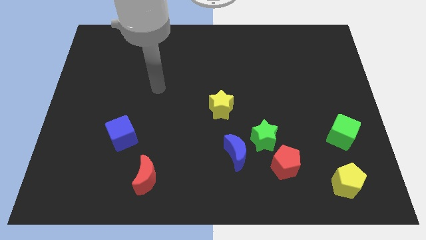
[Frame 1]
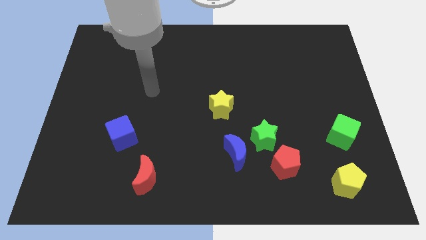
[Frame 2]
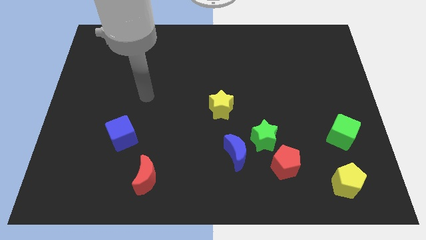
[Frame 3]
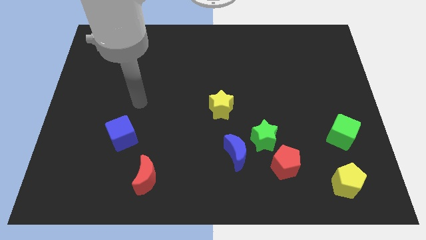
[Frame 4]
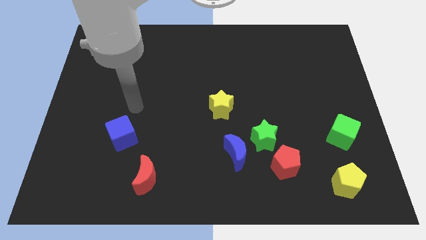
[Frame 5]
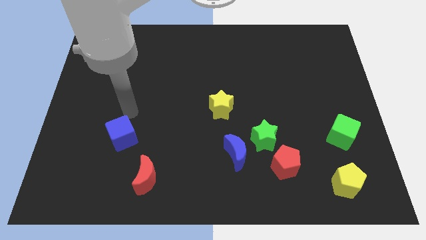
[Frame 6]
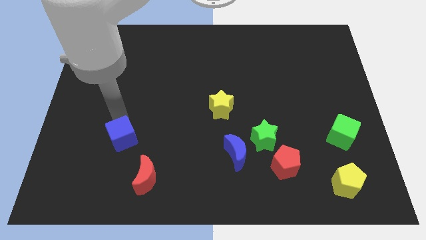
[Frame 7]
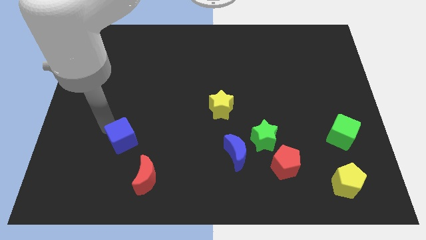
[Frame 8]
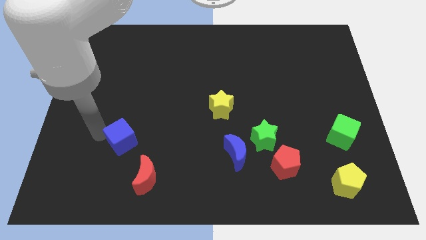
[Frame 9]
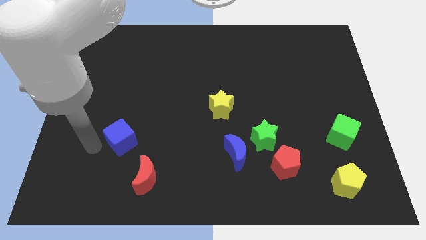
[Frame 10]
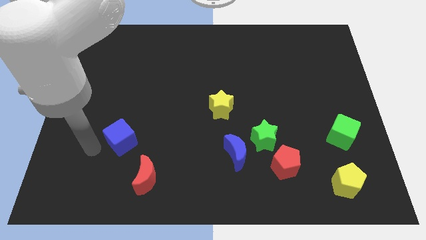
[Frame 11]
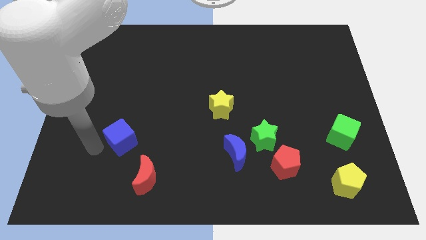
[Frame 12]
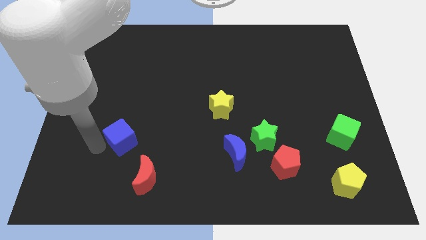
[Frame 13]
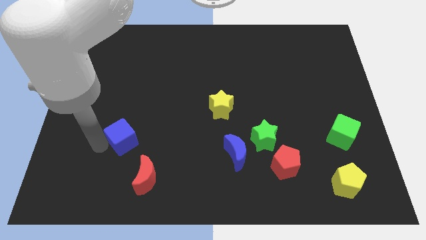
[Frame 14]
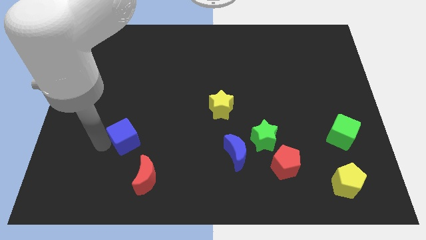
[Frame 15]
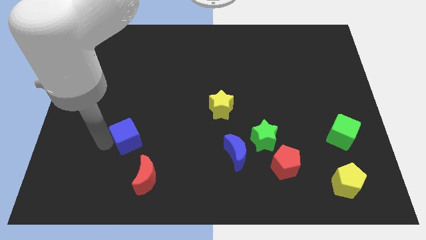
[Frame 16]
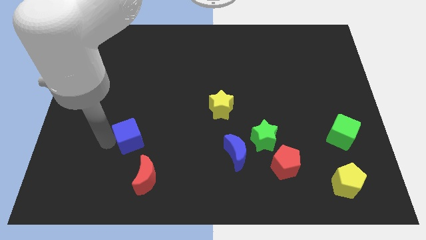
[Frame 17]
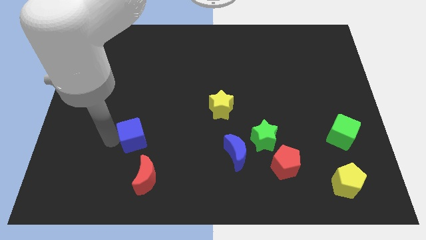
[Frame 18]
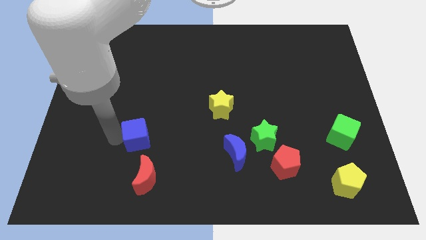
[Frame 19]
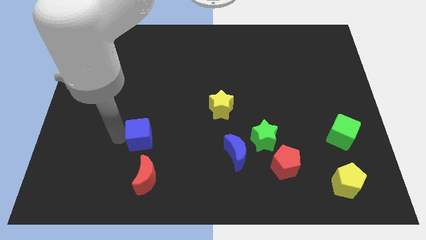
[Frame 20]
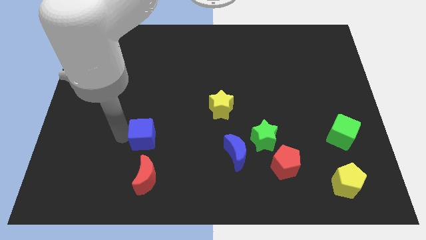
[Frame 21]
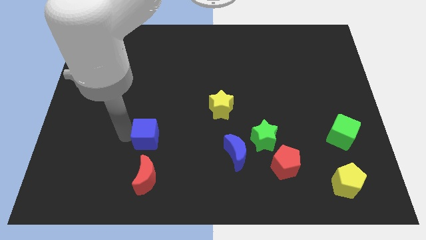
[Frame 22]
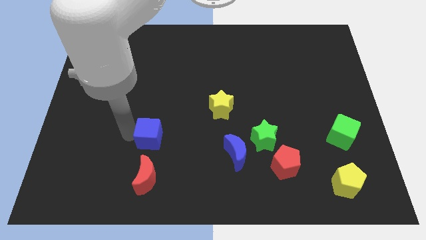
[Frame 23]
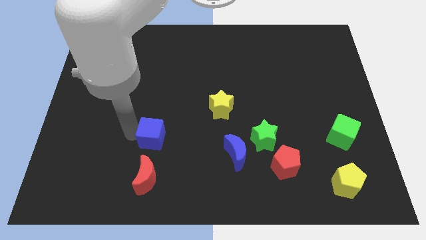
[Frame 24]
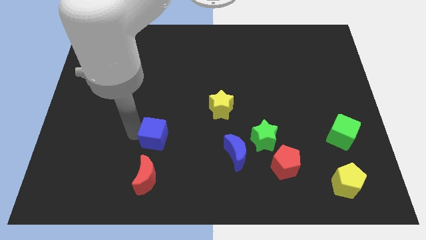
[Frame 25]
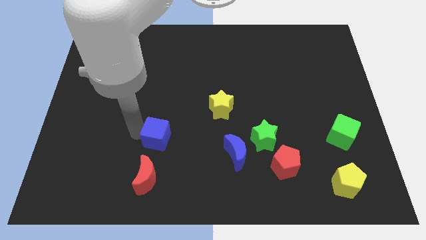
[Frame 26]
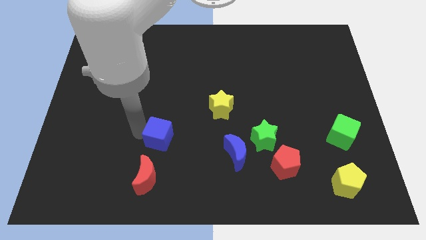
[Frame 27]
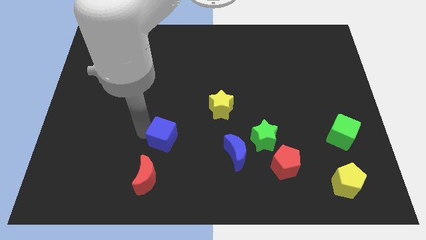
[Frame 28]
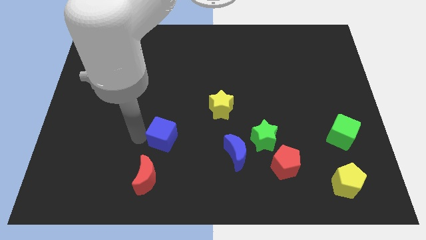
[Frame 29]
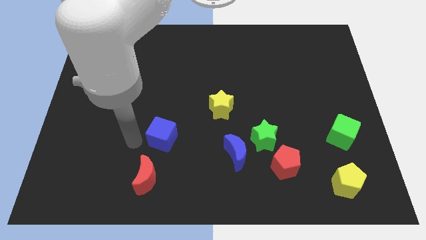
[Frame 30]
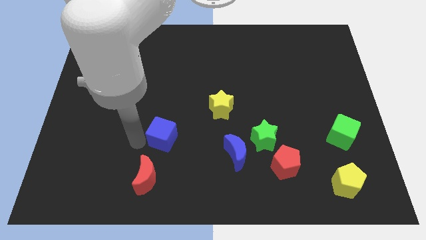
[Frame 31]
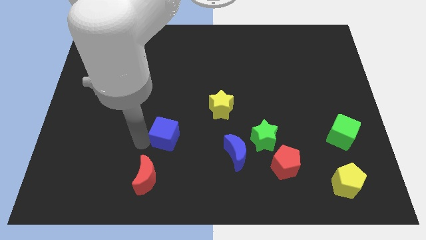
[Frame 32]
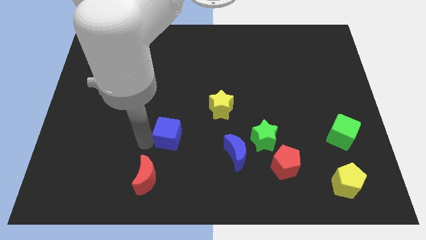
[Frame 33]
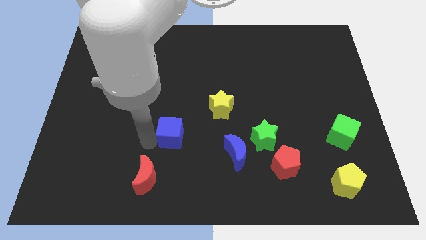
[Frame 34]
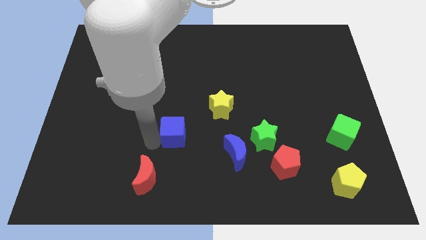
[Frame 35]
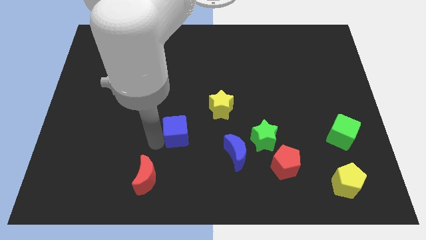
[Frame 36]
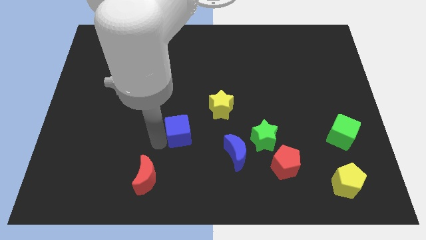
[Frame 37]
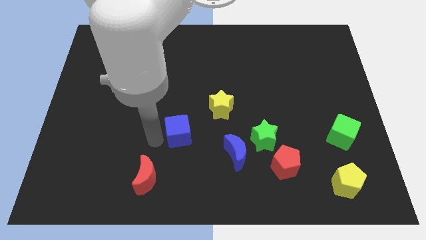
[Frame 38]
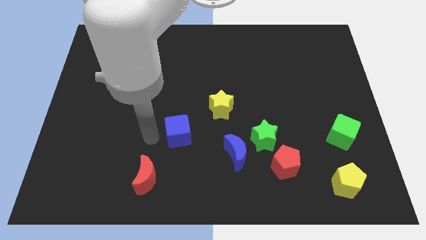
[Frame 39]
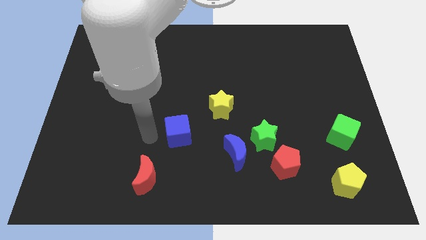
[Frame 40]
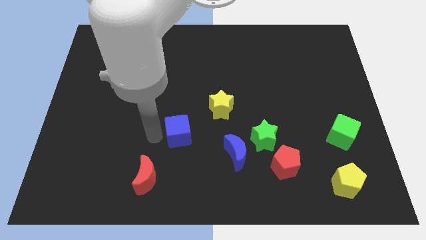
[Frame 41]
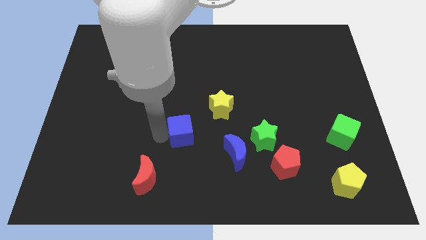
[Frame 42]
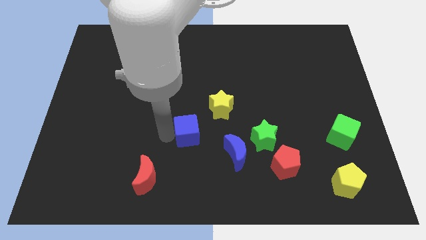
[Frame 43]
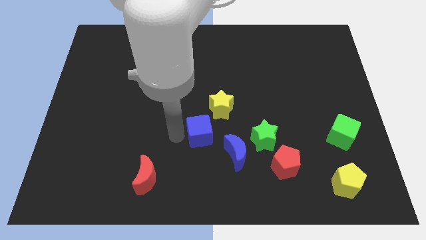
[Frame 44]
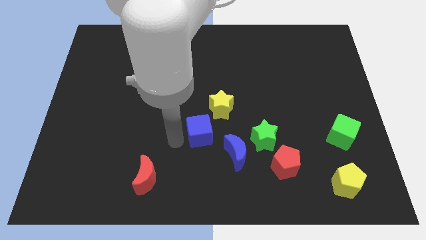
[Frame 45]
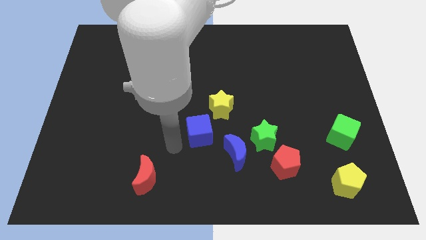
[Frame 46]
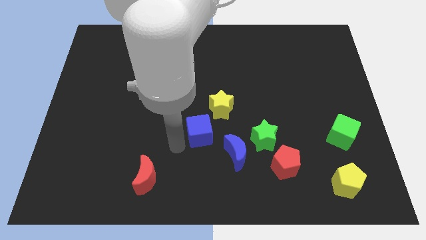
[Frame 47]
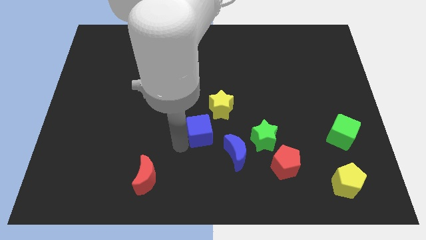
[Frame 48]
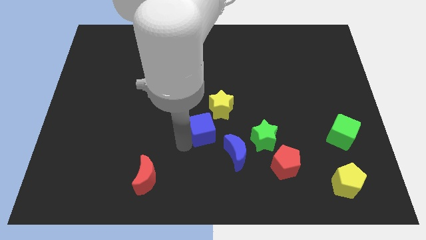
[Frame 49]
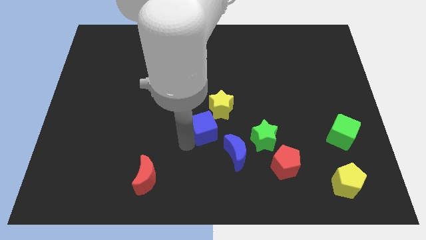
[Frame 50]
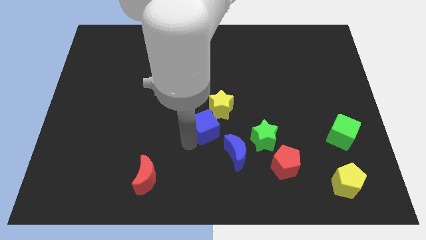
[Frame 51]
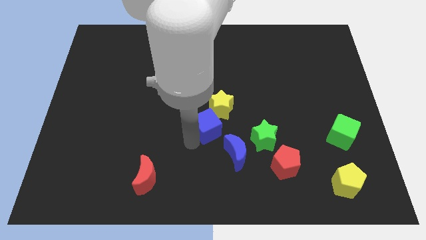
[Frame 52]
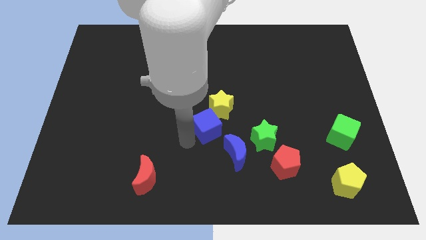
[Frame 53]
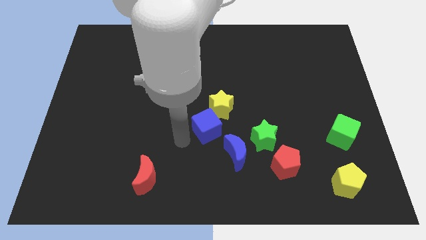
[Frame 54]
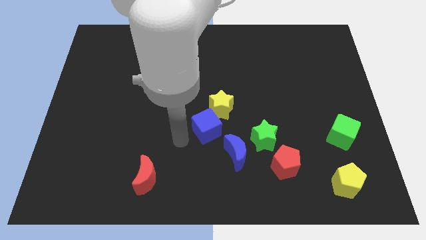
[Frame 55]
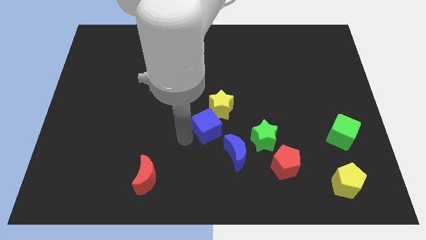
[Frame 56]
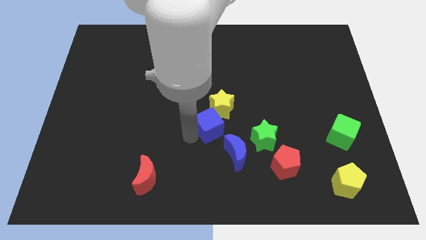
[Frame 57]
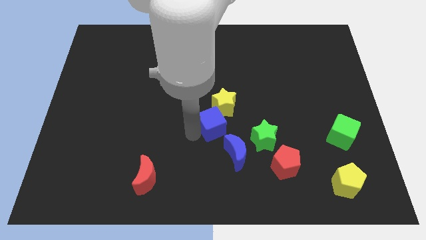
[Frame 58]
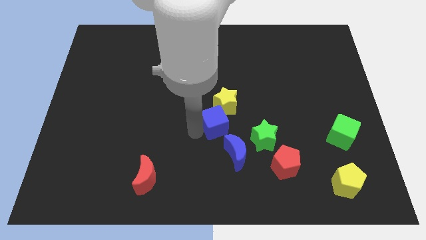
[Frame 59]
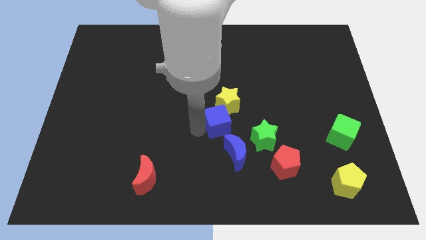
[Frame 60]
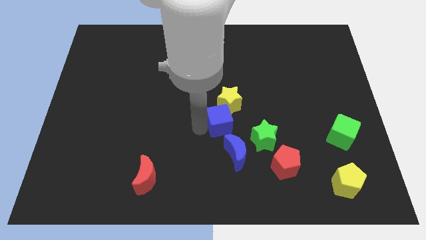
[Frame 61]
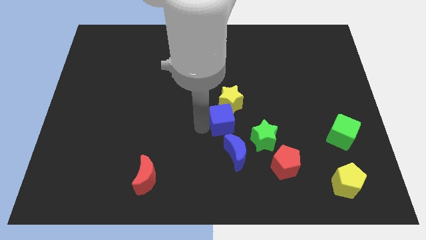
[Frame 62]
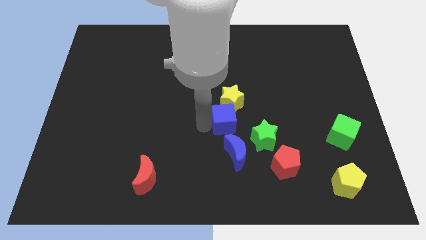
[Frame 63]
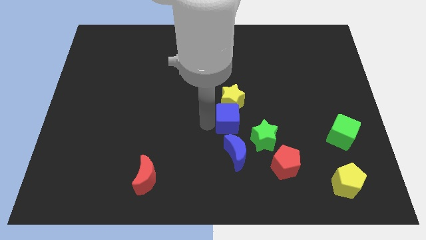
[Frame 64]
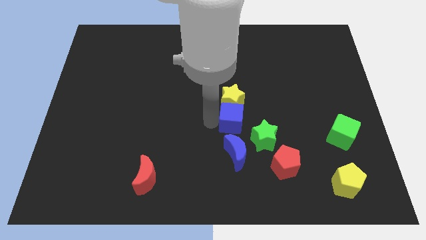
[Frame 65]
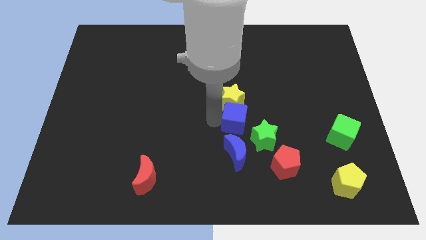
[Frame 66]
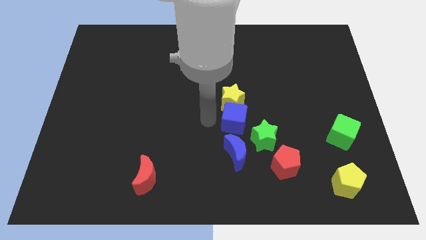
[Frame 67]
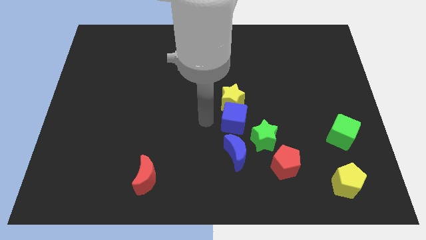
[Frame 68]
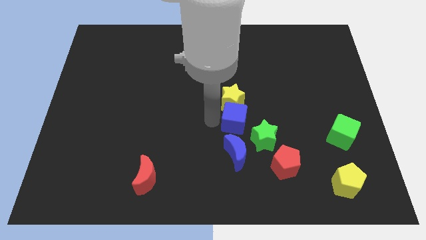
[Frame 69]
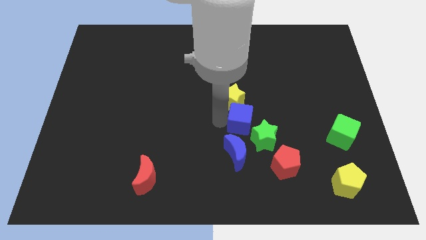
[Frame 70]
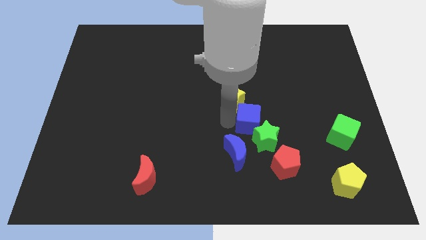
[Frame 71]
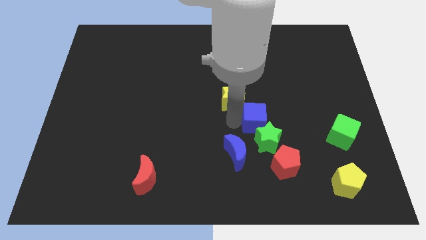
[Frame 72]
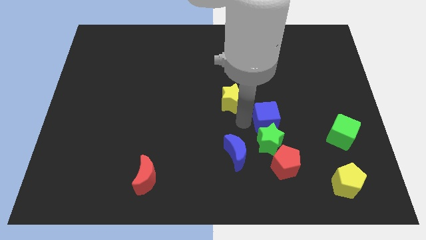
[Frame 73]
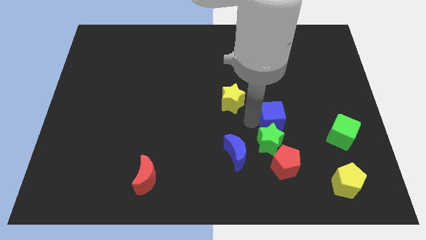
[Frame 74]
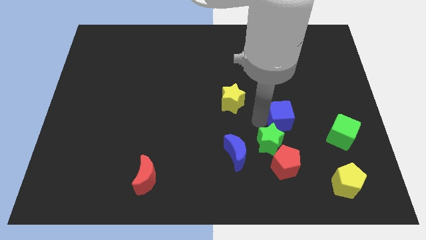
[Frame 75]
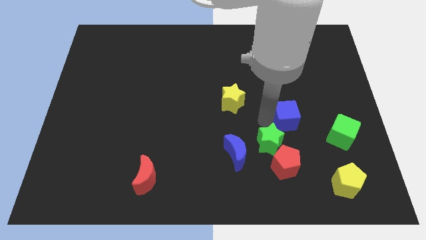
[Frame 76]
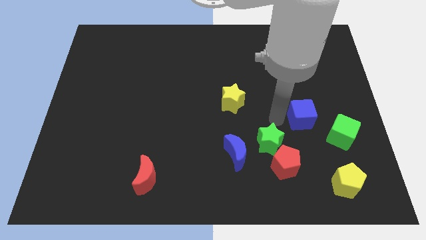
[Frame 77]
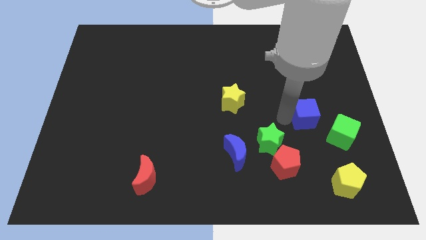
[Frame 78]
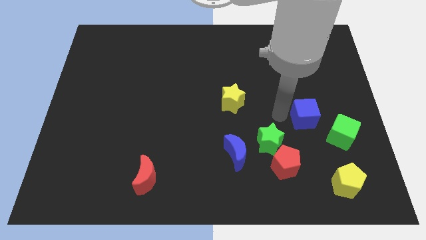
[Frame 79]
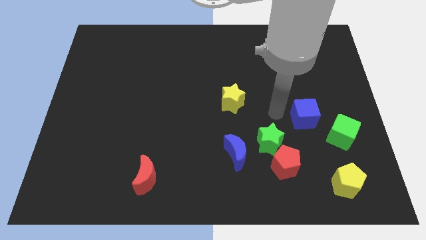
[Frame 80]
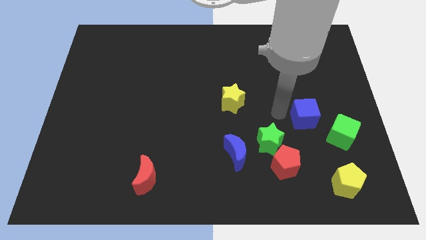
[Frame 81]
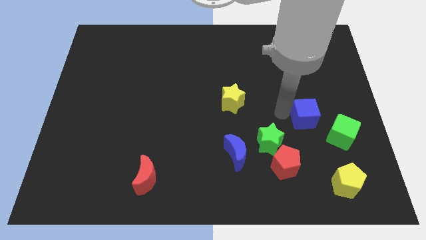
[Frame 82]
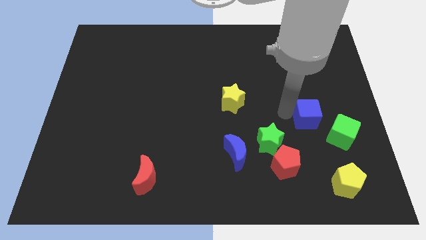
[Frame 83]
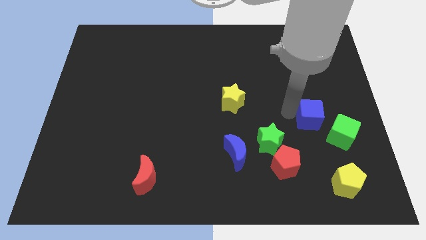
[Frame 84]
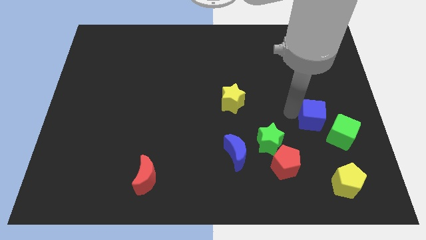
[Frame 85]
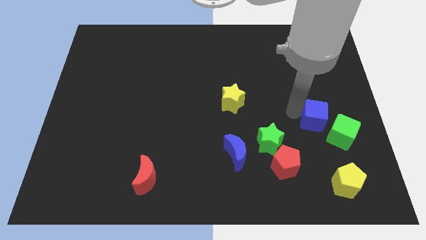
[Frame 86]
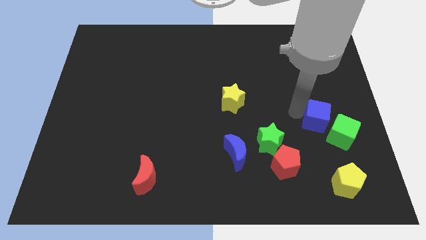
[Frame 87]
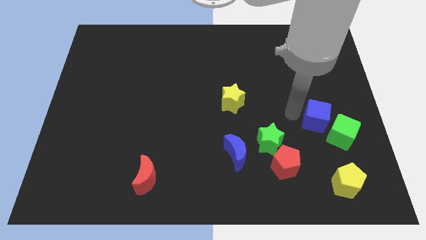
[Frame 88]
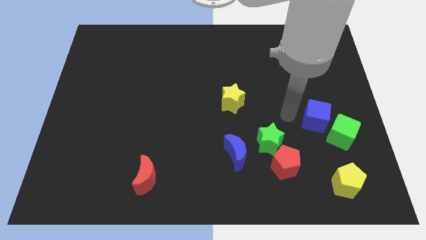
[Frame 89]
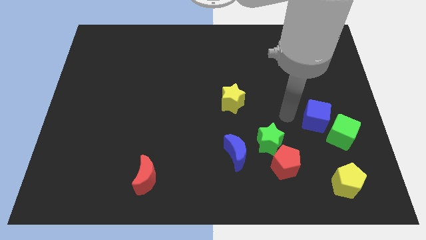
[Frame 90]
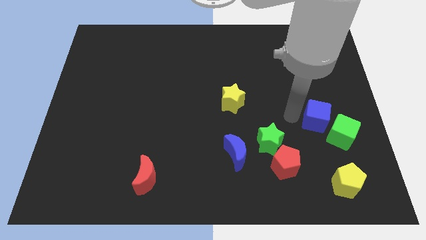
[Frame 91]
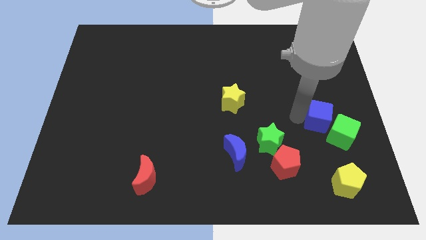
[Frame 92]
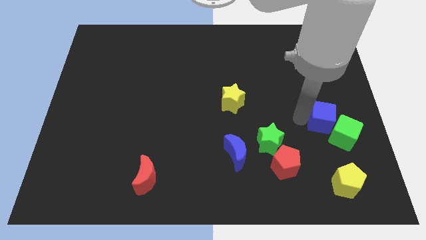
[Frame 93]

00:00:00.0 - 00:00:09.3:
move the blue cube to the top side of the yellow pentagon
